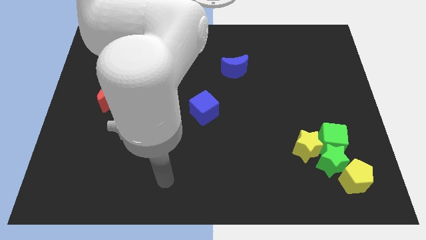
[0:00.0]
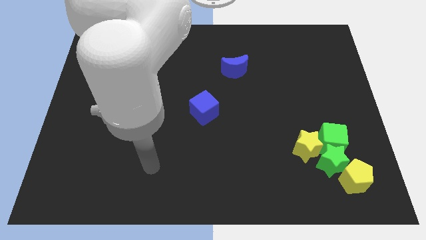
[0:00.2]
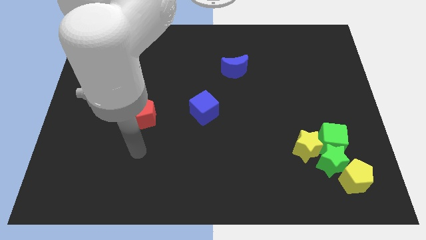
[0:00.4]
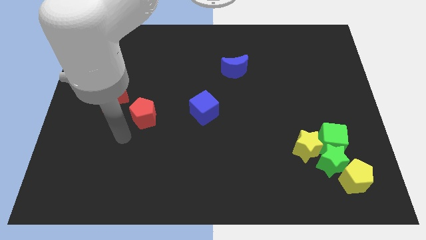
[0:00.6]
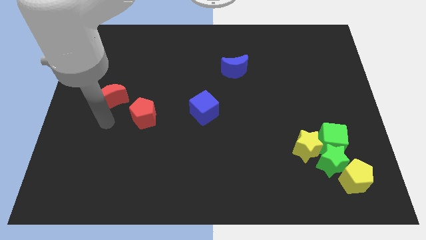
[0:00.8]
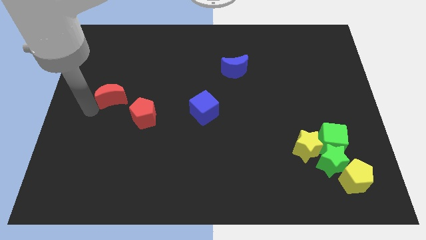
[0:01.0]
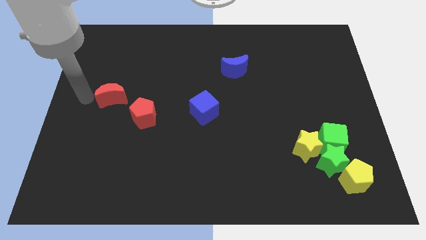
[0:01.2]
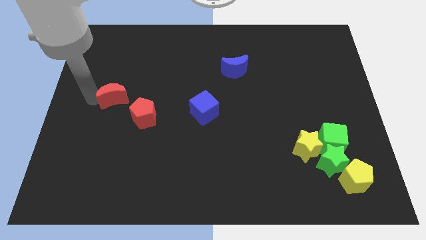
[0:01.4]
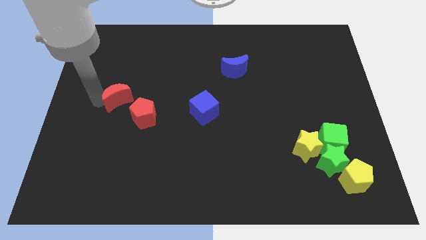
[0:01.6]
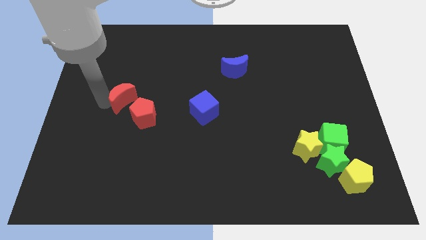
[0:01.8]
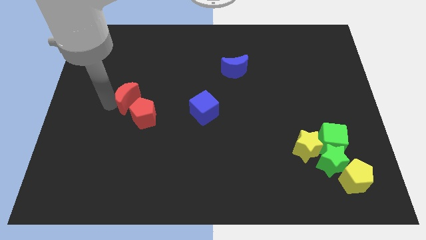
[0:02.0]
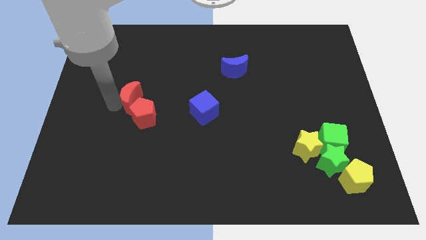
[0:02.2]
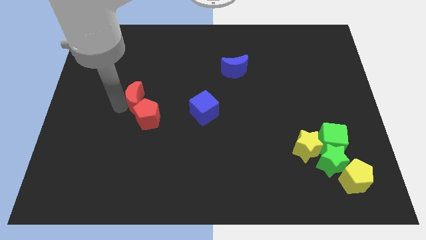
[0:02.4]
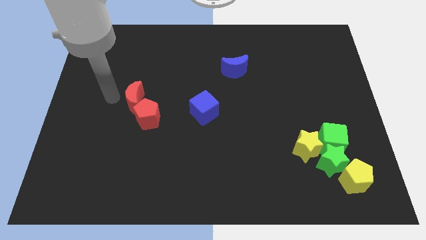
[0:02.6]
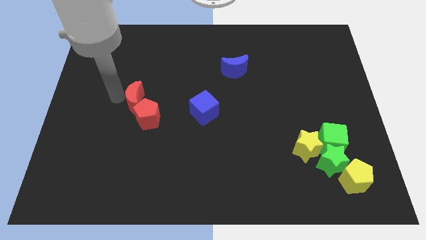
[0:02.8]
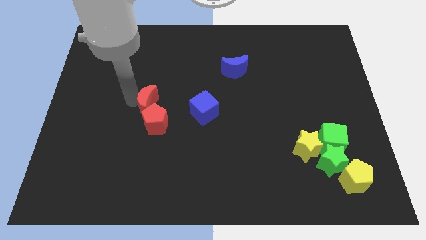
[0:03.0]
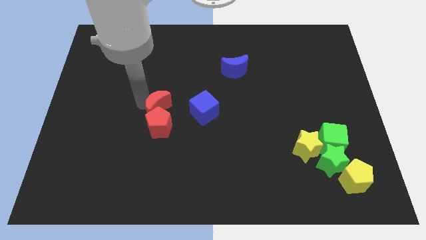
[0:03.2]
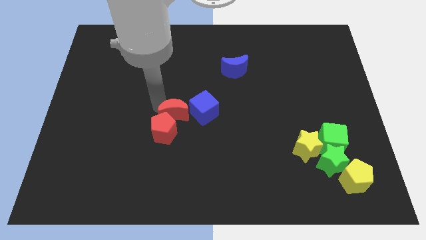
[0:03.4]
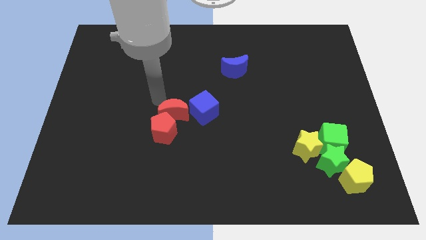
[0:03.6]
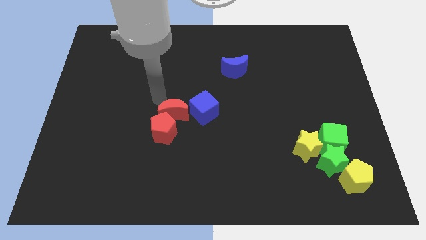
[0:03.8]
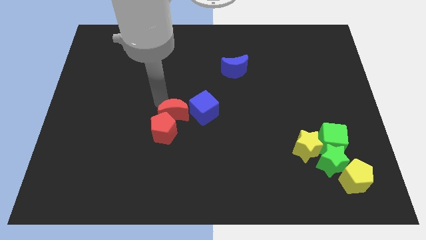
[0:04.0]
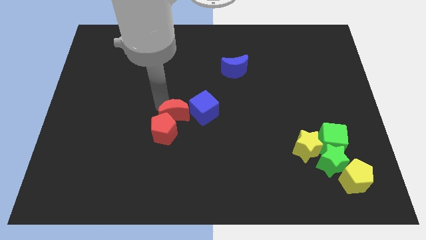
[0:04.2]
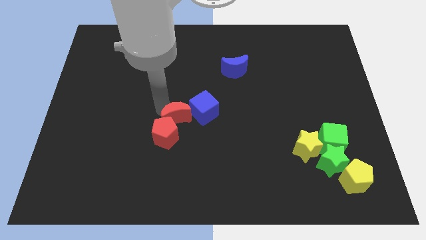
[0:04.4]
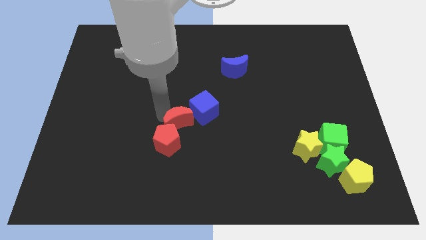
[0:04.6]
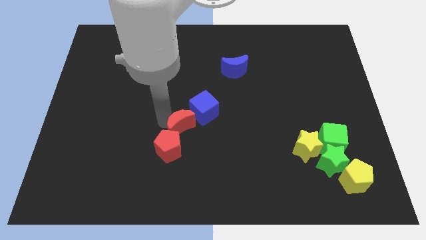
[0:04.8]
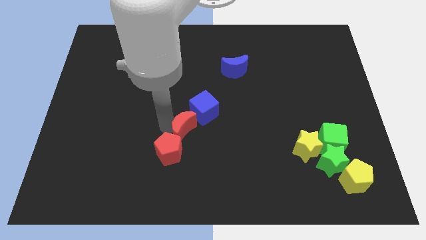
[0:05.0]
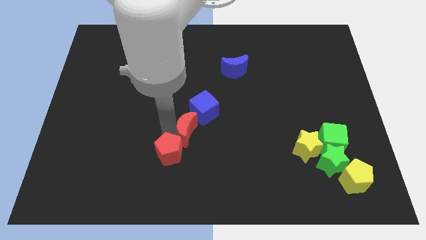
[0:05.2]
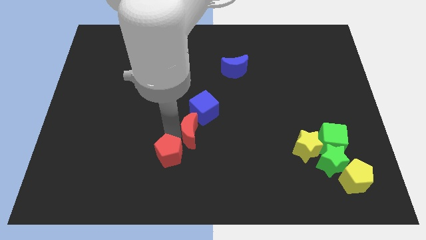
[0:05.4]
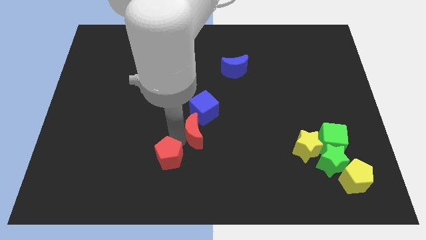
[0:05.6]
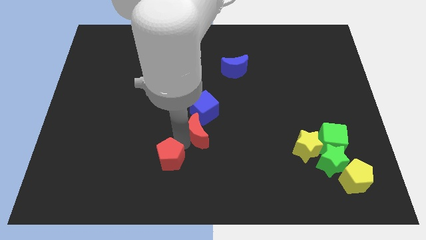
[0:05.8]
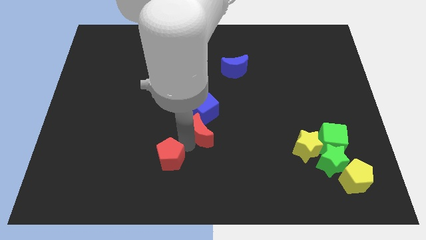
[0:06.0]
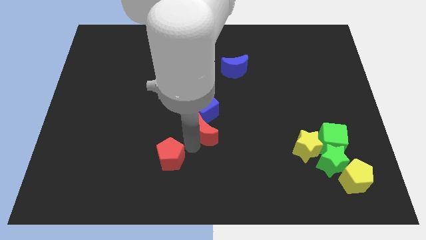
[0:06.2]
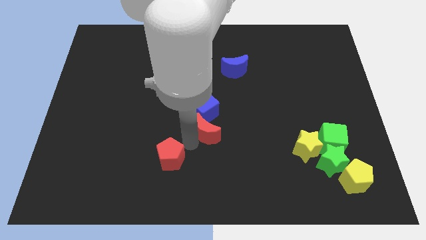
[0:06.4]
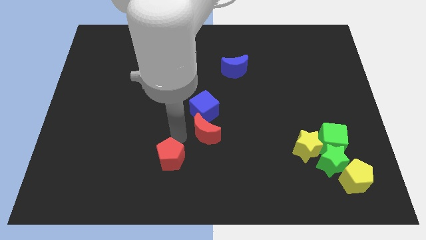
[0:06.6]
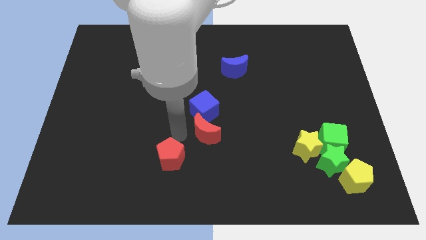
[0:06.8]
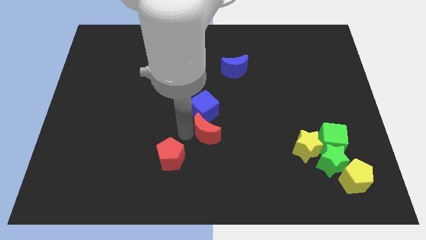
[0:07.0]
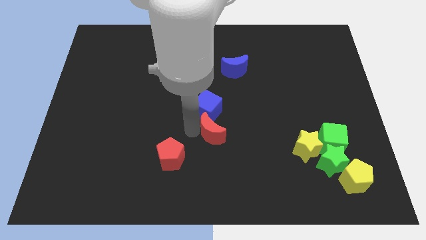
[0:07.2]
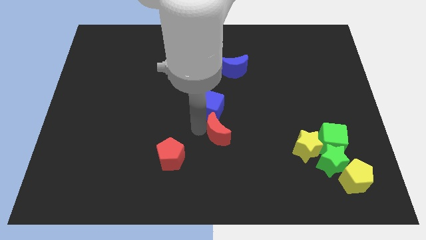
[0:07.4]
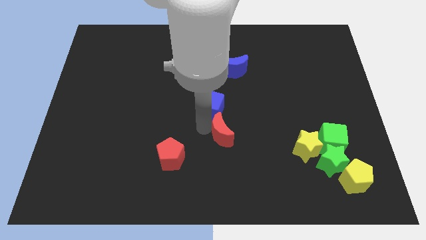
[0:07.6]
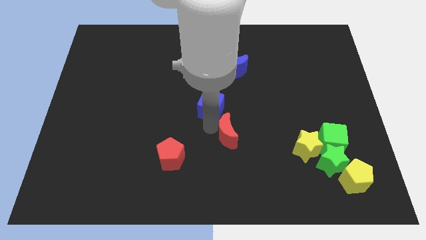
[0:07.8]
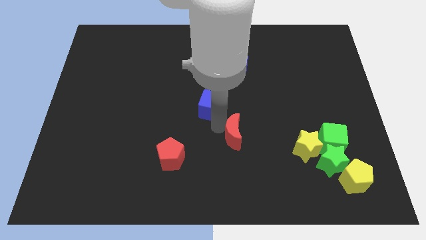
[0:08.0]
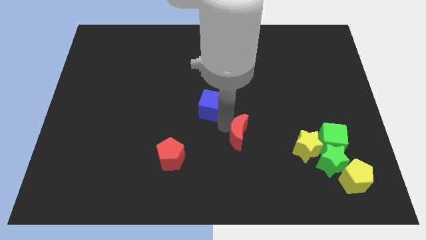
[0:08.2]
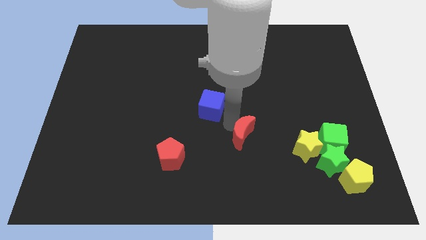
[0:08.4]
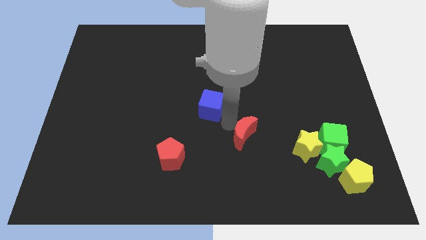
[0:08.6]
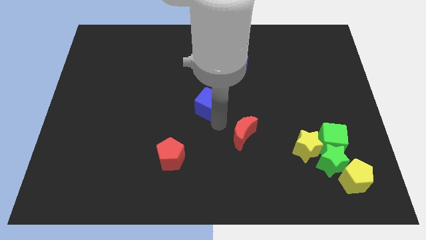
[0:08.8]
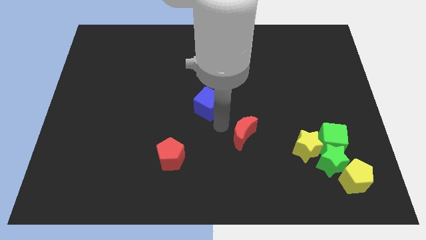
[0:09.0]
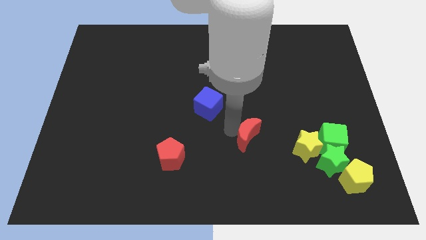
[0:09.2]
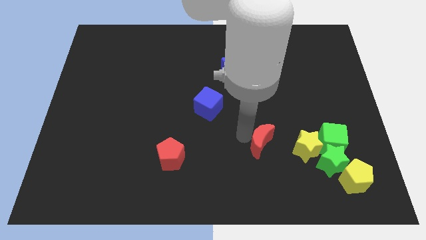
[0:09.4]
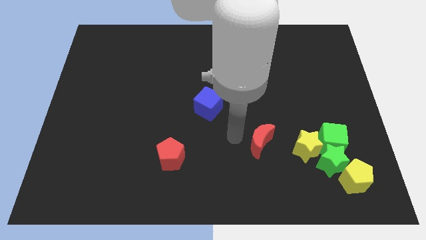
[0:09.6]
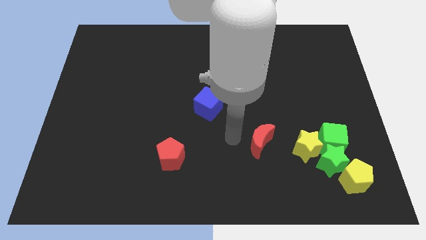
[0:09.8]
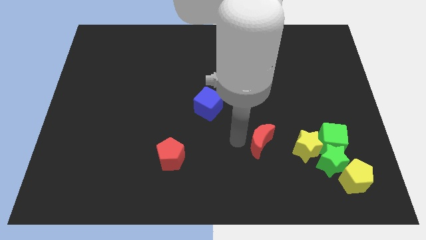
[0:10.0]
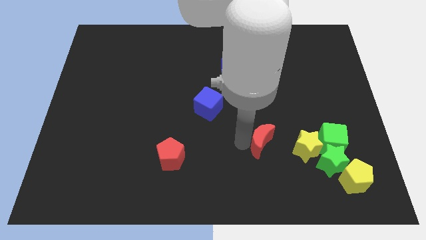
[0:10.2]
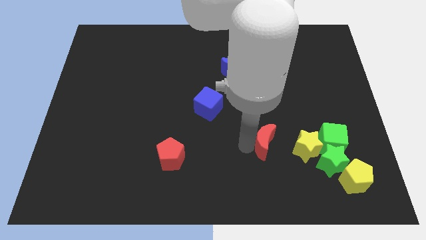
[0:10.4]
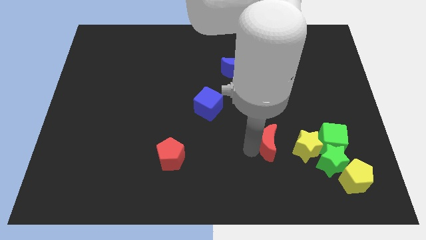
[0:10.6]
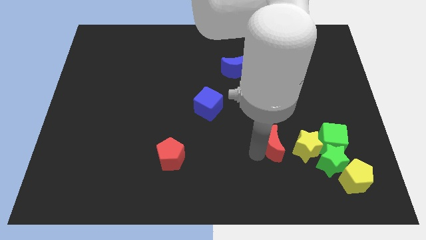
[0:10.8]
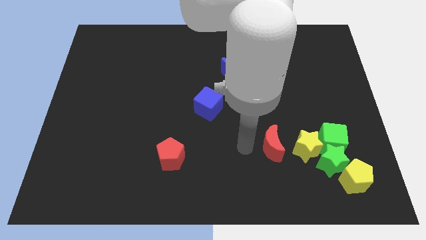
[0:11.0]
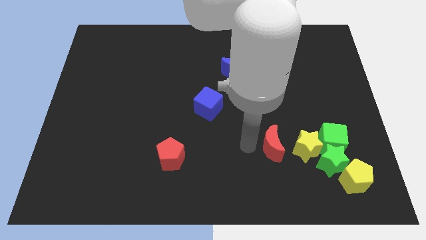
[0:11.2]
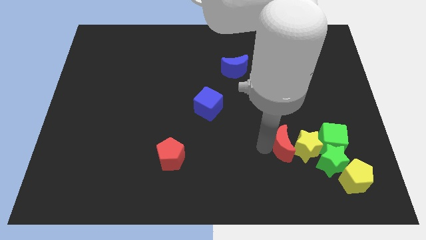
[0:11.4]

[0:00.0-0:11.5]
move the red moon close to the yellow star

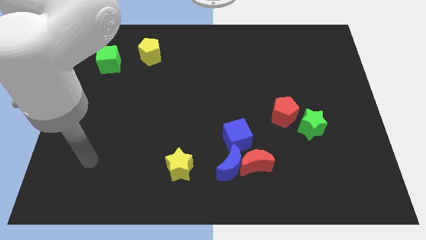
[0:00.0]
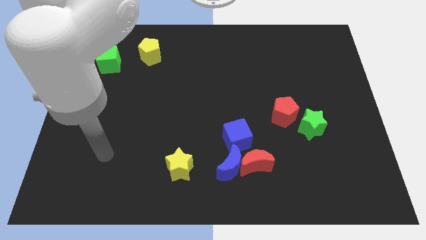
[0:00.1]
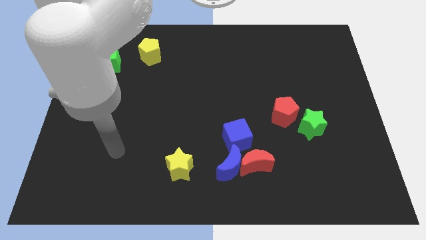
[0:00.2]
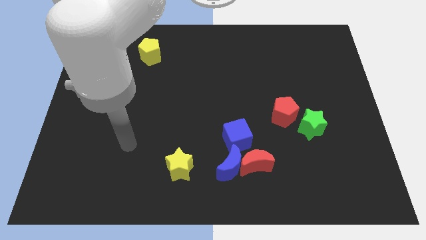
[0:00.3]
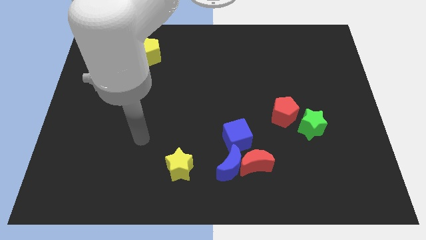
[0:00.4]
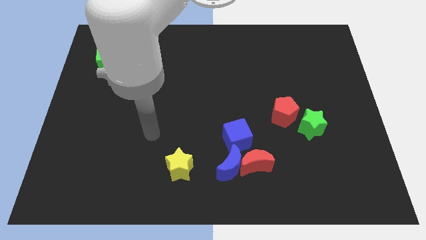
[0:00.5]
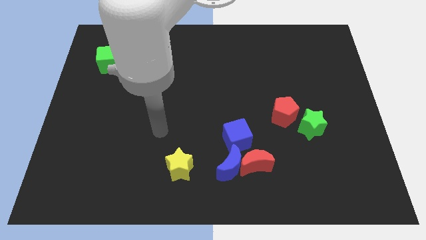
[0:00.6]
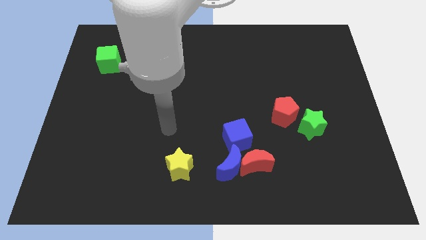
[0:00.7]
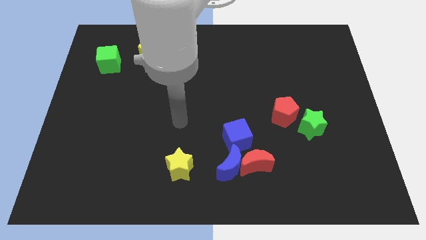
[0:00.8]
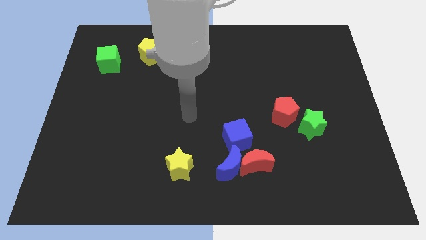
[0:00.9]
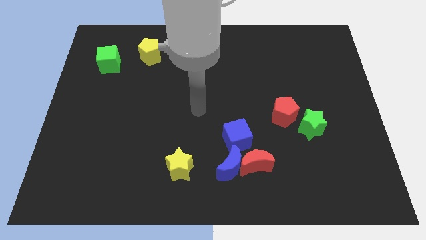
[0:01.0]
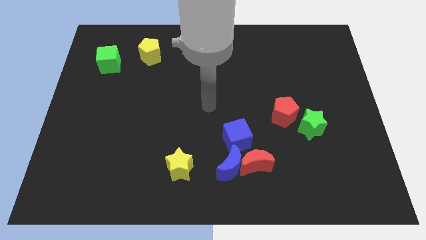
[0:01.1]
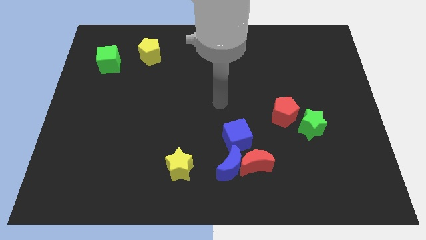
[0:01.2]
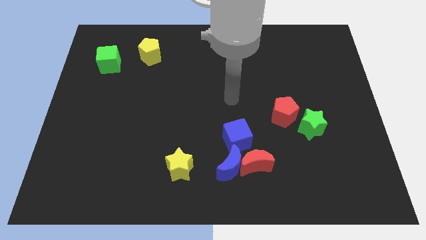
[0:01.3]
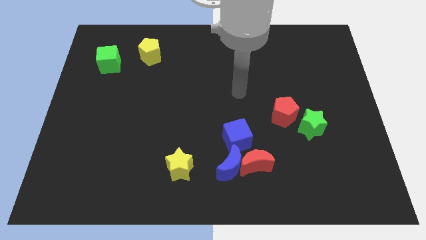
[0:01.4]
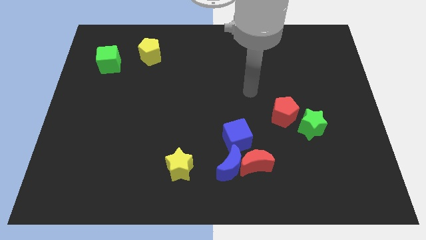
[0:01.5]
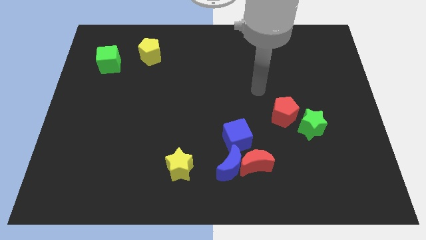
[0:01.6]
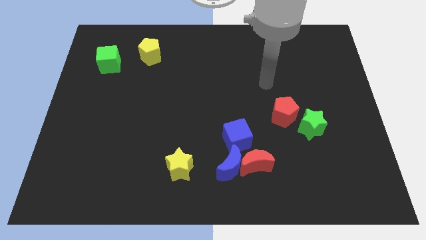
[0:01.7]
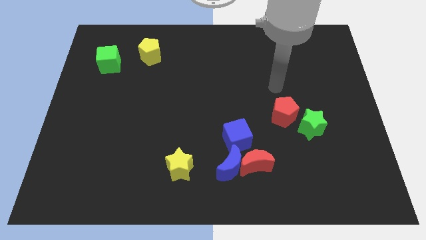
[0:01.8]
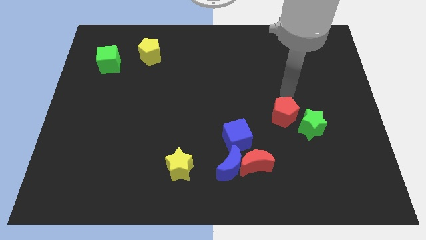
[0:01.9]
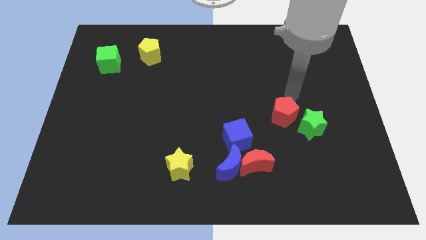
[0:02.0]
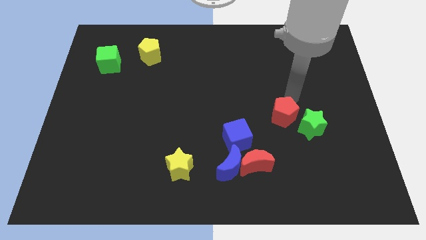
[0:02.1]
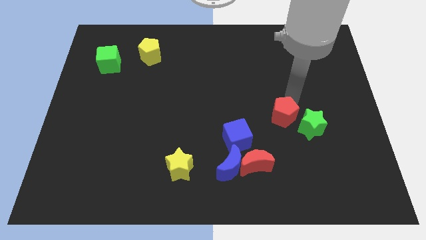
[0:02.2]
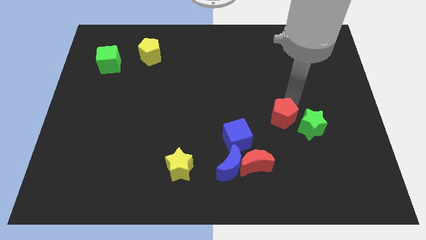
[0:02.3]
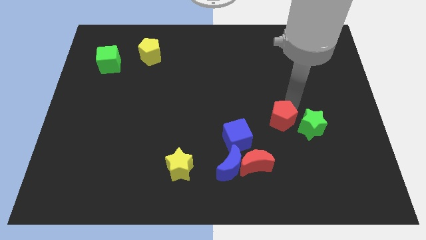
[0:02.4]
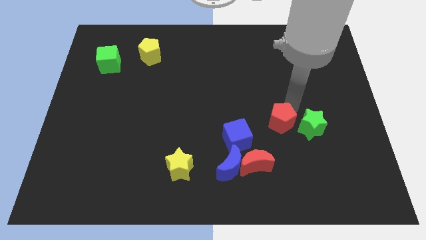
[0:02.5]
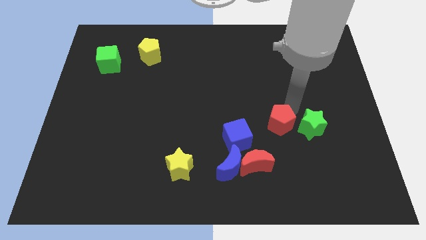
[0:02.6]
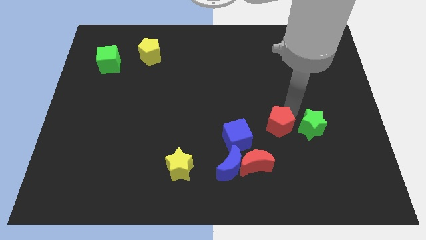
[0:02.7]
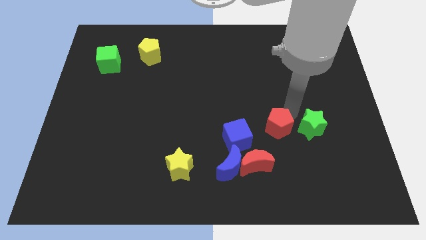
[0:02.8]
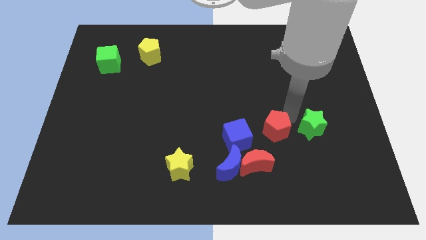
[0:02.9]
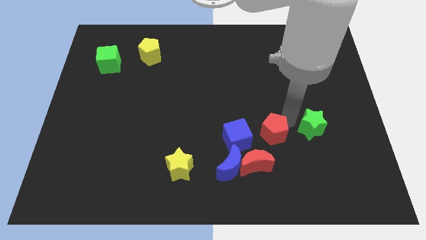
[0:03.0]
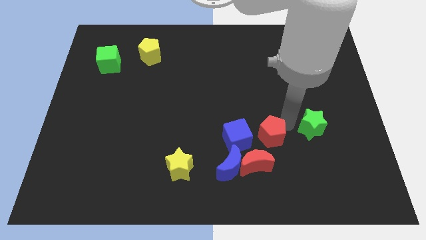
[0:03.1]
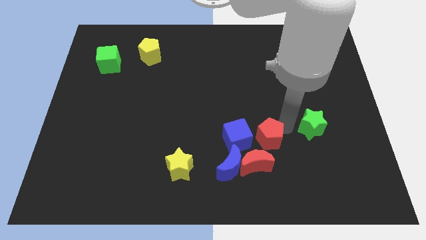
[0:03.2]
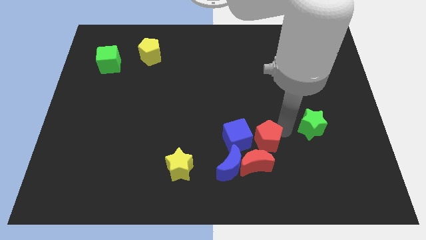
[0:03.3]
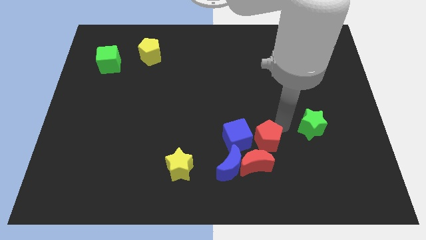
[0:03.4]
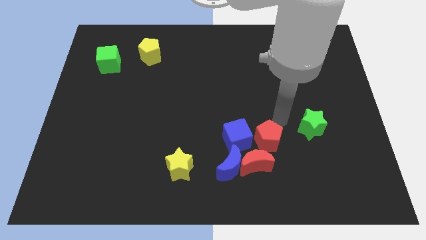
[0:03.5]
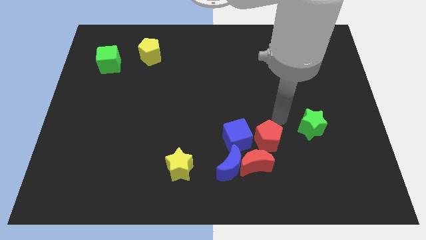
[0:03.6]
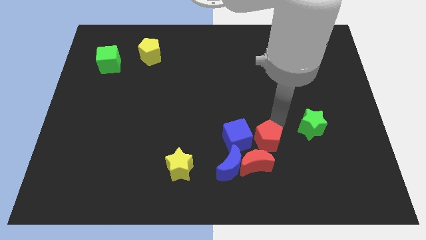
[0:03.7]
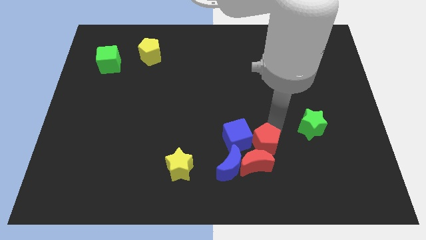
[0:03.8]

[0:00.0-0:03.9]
put the red pentagon to the red moon
